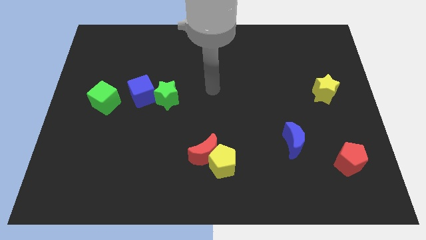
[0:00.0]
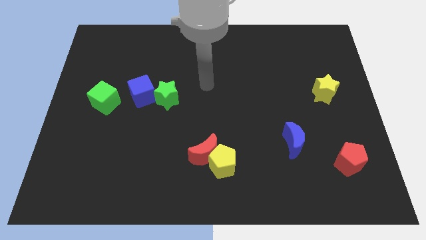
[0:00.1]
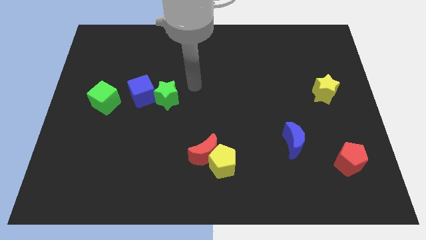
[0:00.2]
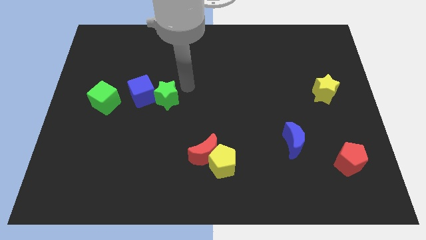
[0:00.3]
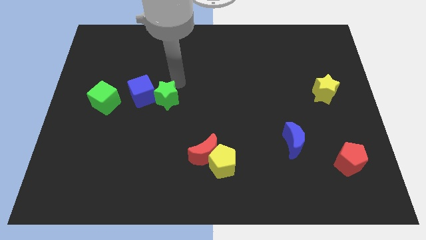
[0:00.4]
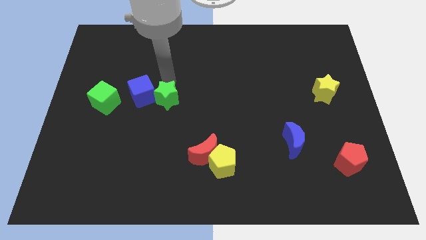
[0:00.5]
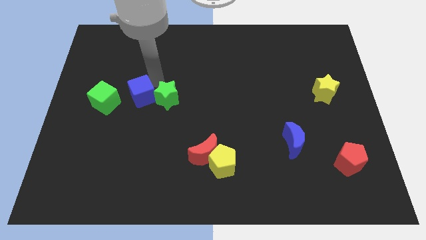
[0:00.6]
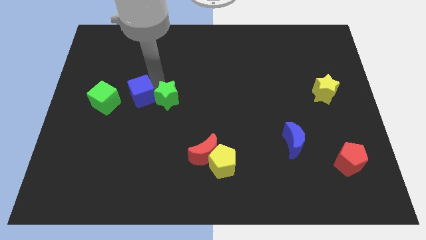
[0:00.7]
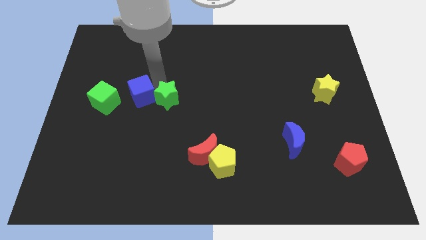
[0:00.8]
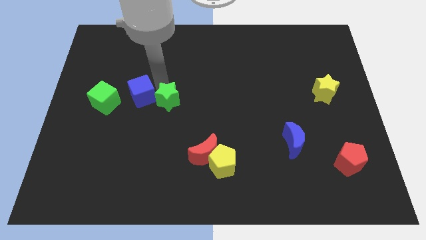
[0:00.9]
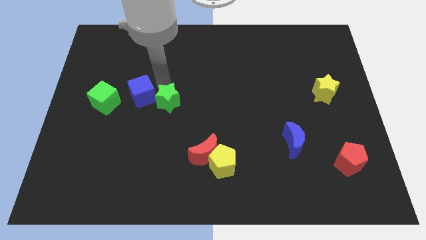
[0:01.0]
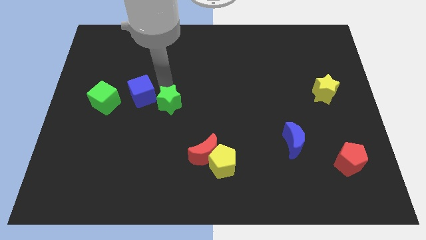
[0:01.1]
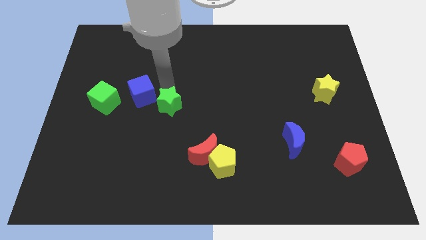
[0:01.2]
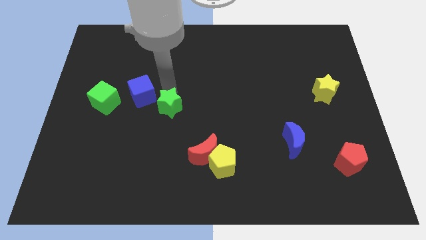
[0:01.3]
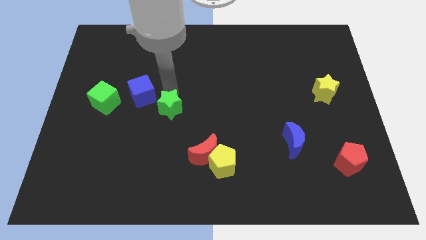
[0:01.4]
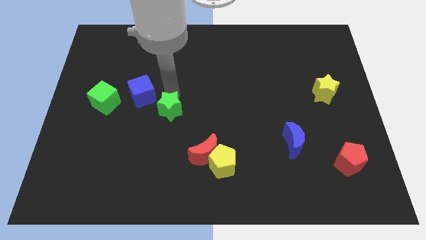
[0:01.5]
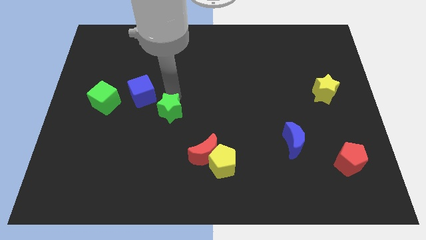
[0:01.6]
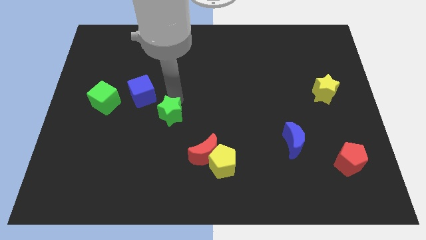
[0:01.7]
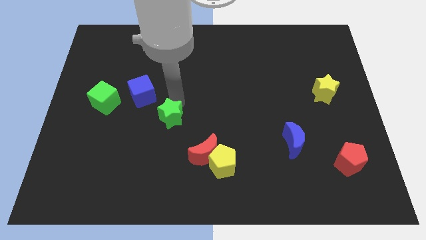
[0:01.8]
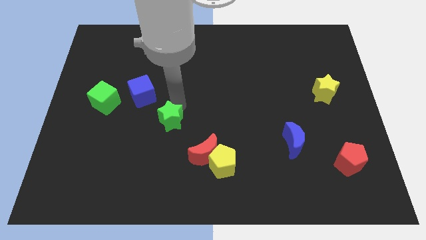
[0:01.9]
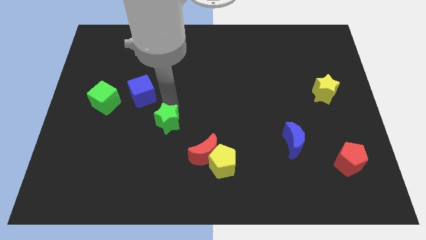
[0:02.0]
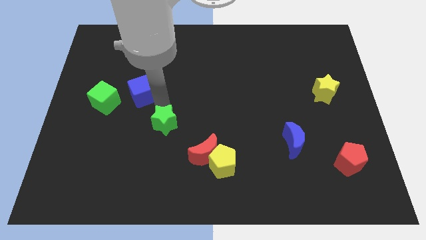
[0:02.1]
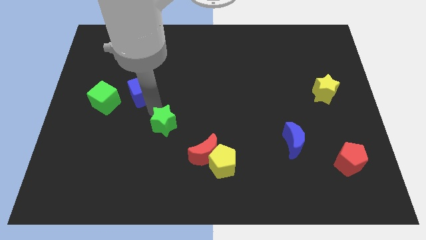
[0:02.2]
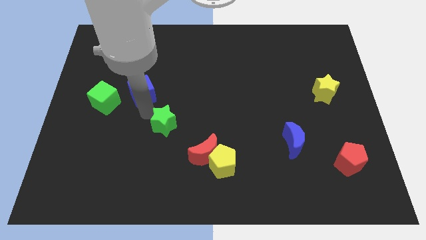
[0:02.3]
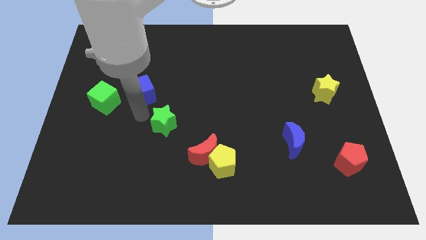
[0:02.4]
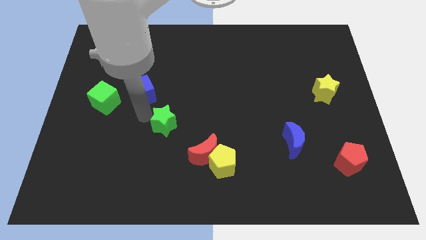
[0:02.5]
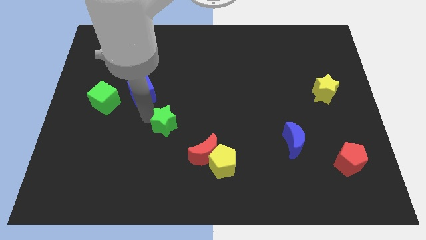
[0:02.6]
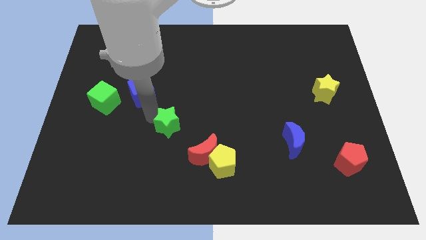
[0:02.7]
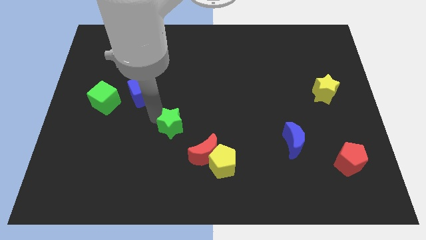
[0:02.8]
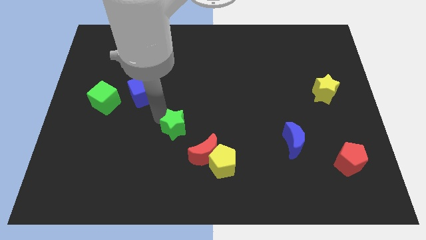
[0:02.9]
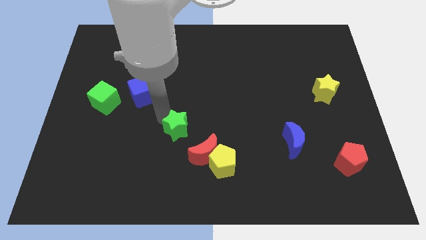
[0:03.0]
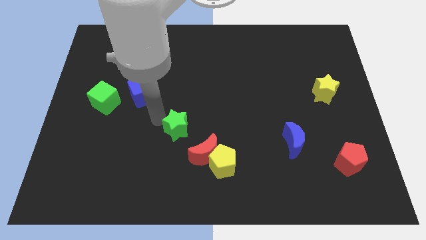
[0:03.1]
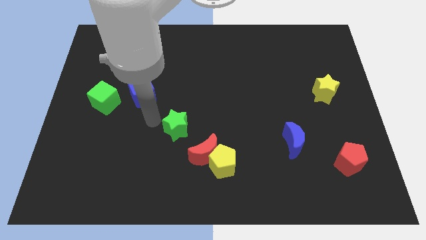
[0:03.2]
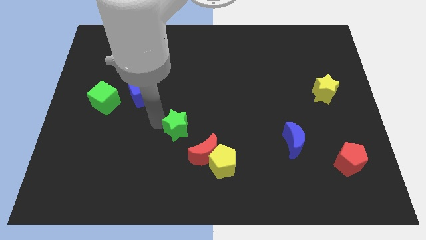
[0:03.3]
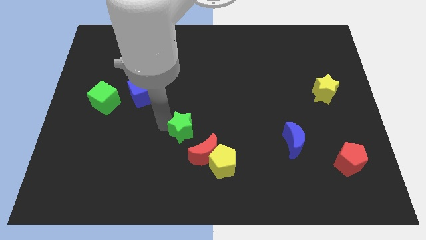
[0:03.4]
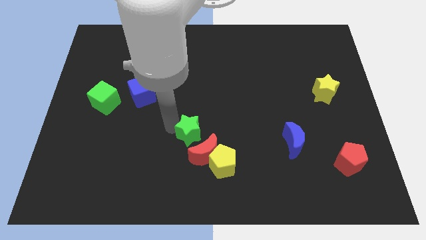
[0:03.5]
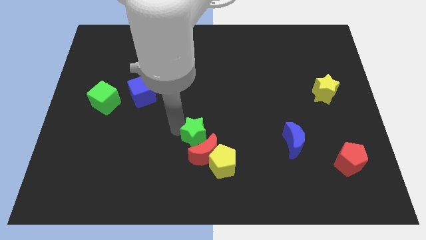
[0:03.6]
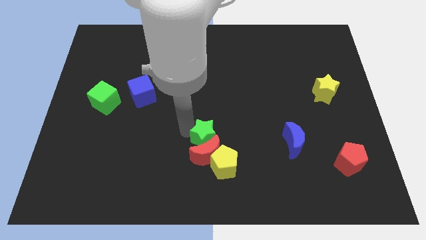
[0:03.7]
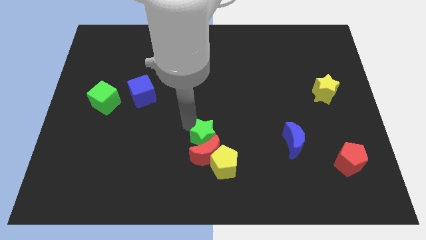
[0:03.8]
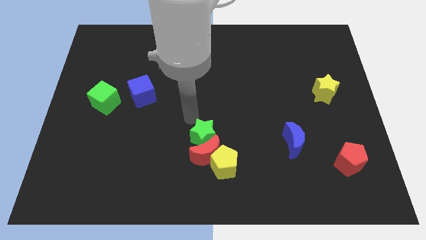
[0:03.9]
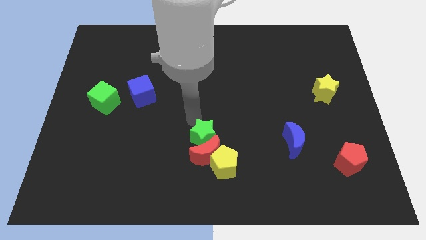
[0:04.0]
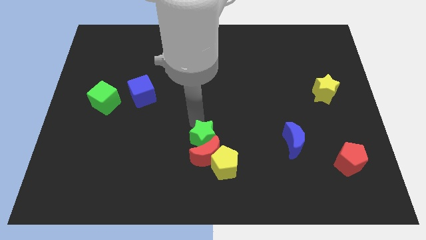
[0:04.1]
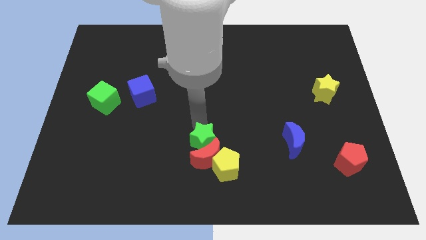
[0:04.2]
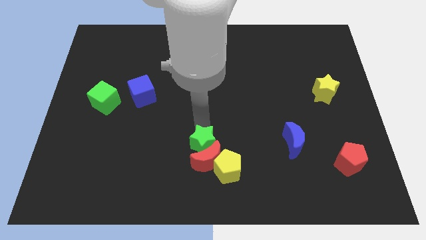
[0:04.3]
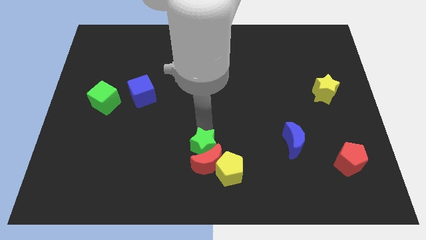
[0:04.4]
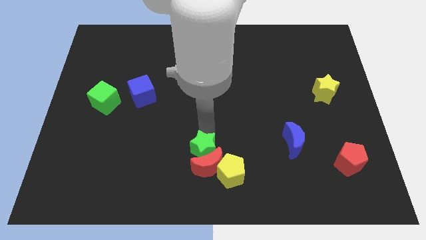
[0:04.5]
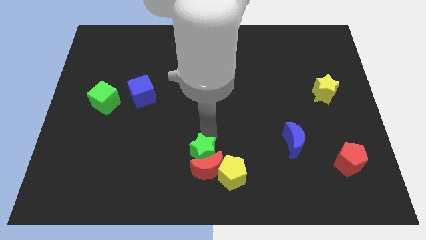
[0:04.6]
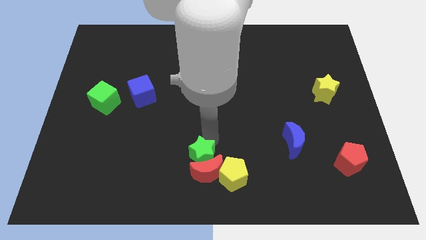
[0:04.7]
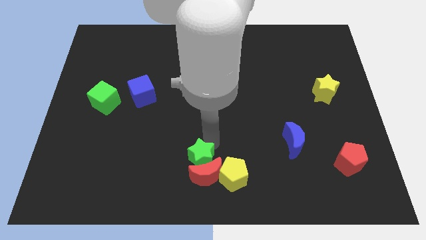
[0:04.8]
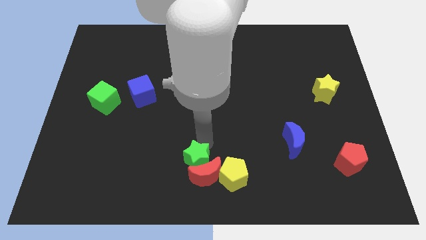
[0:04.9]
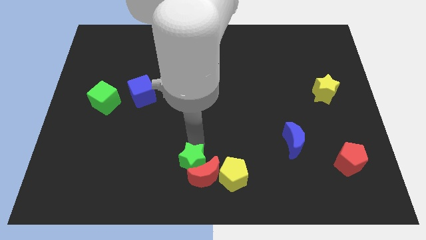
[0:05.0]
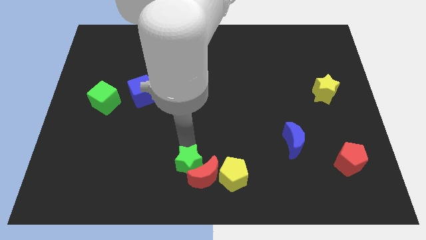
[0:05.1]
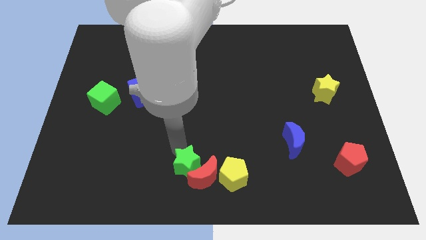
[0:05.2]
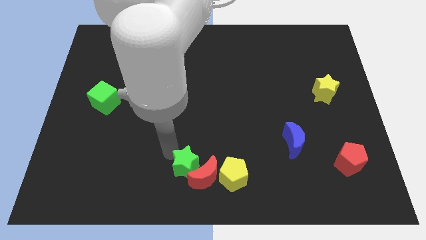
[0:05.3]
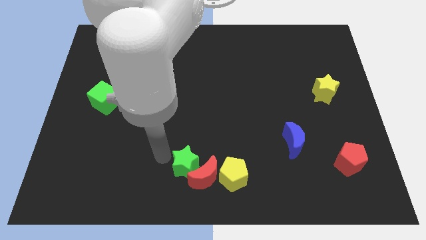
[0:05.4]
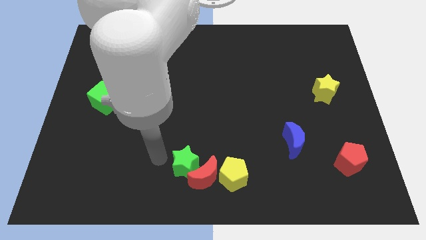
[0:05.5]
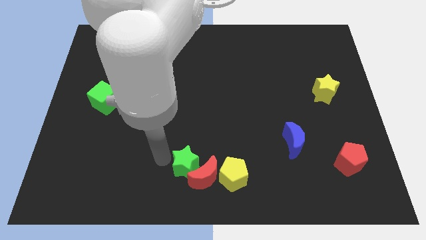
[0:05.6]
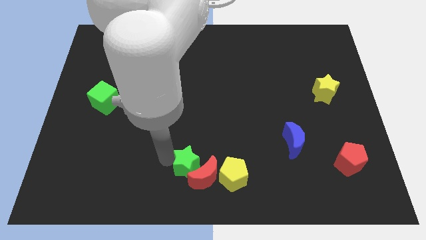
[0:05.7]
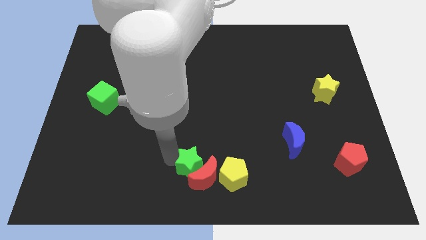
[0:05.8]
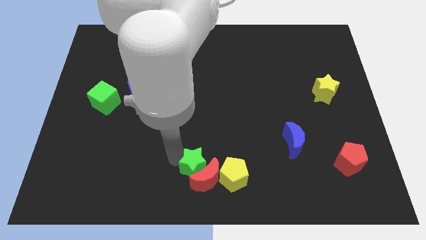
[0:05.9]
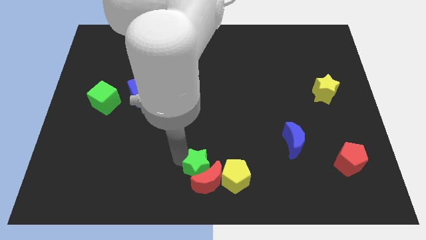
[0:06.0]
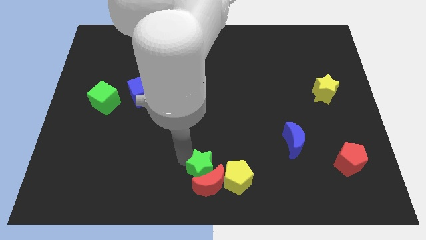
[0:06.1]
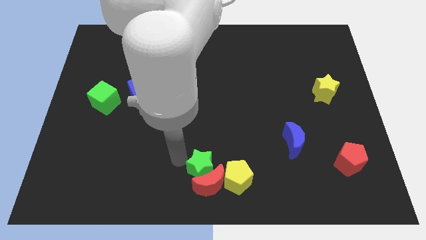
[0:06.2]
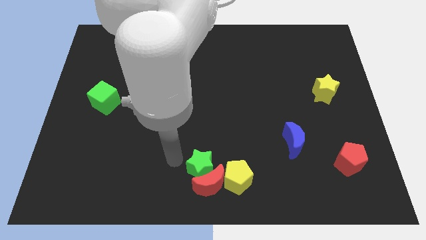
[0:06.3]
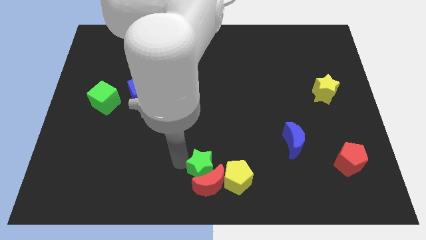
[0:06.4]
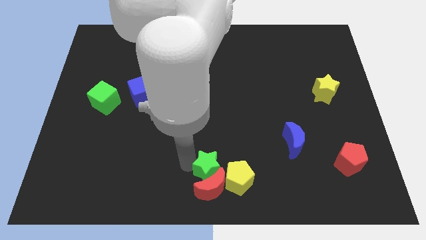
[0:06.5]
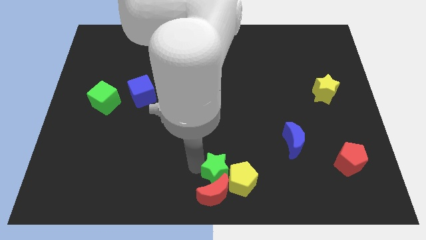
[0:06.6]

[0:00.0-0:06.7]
move the green star close to the yellow pentagon

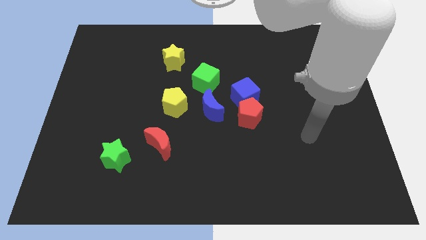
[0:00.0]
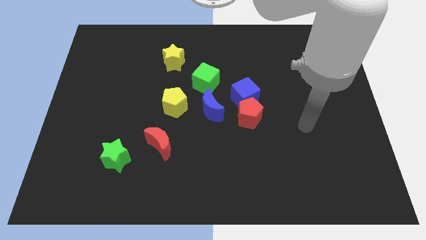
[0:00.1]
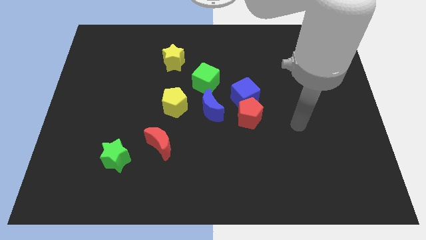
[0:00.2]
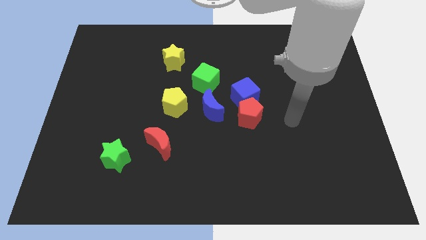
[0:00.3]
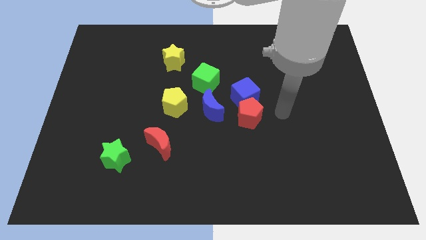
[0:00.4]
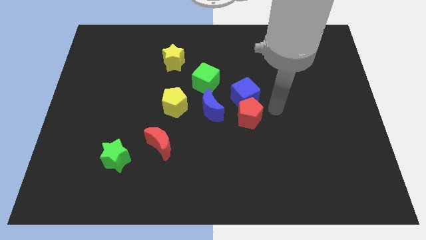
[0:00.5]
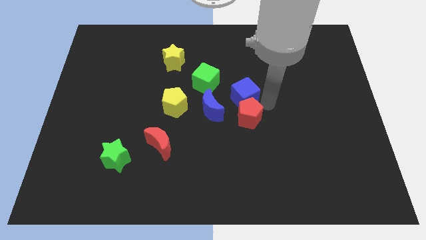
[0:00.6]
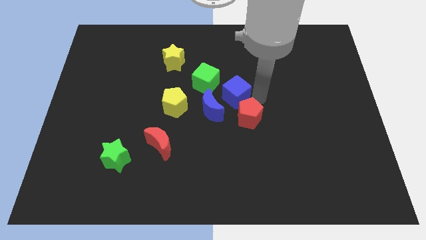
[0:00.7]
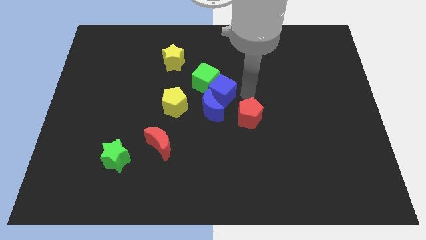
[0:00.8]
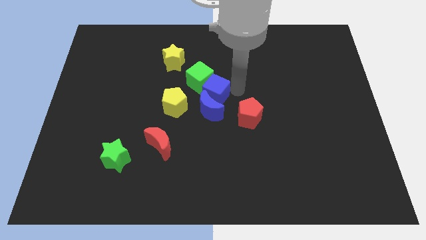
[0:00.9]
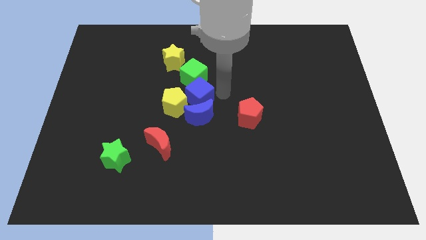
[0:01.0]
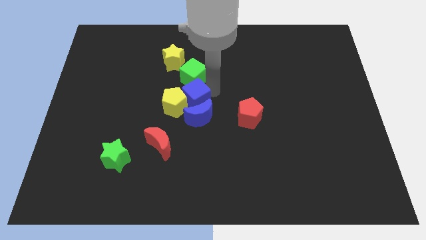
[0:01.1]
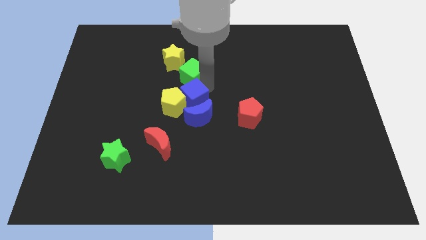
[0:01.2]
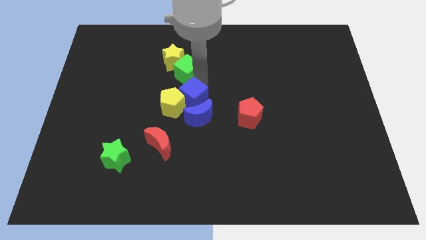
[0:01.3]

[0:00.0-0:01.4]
slide the green cube towards the yellow star
